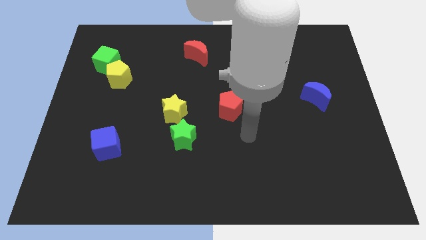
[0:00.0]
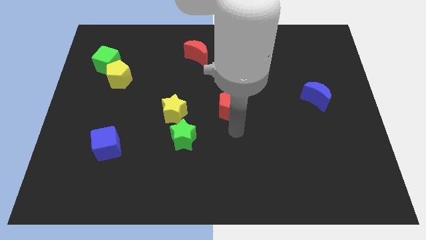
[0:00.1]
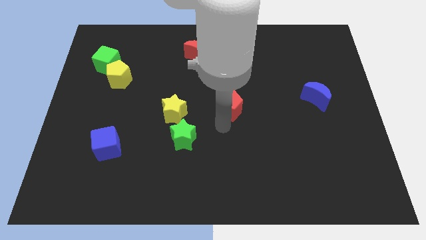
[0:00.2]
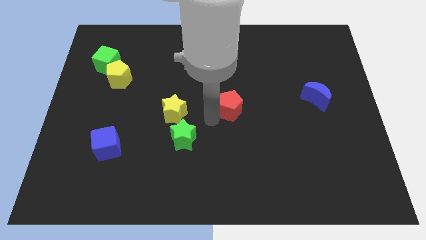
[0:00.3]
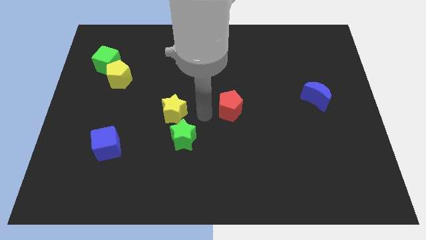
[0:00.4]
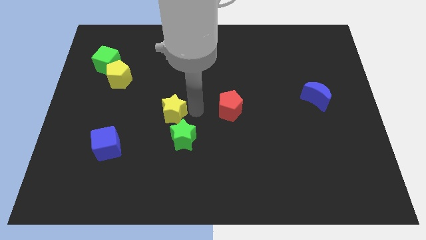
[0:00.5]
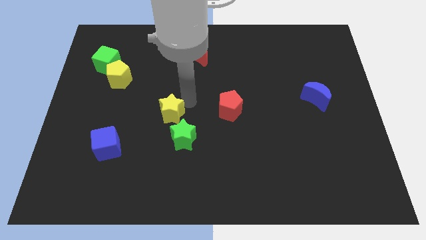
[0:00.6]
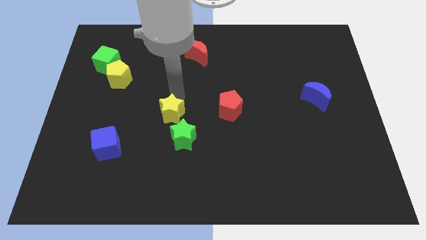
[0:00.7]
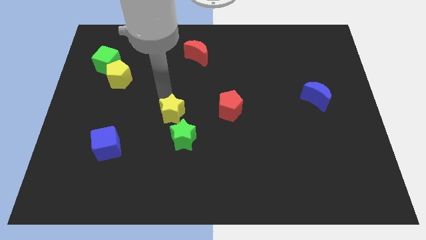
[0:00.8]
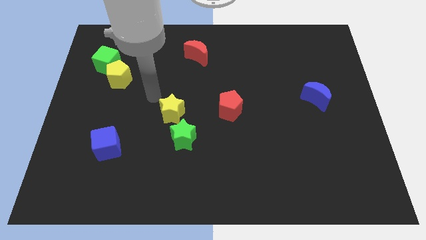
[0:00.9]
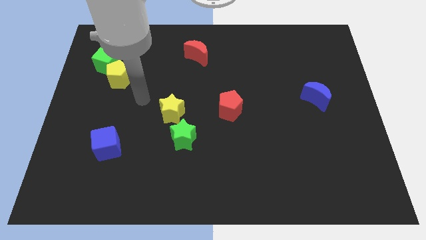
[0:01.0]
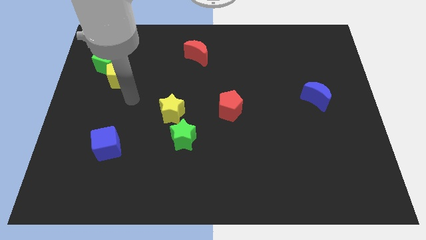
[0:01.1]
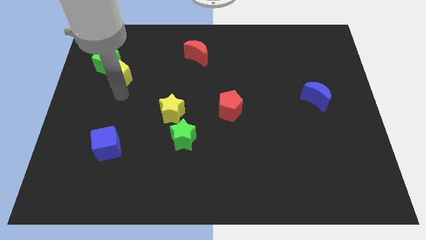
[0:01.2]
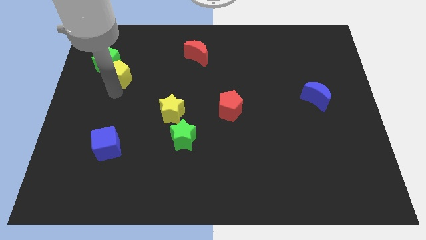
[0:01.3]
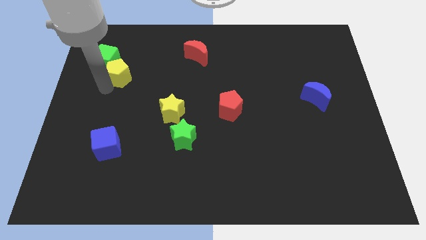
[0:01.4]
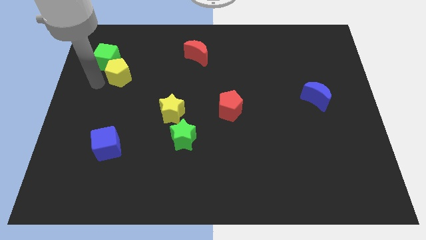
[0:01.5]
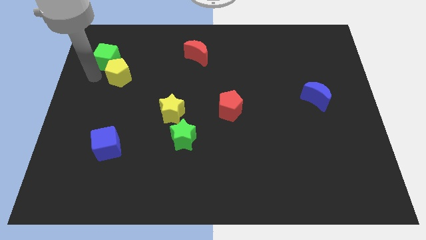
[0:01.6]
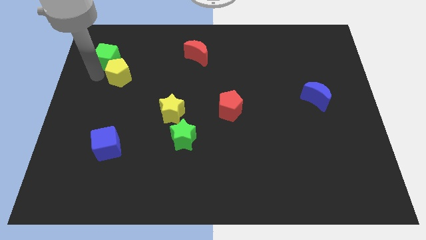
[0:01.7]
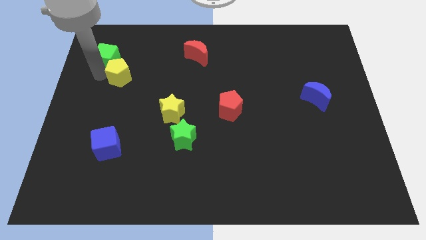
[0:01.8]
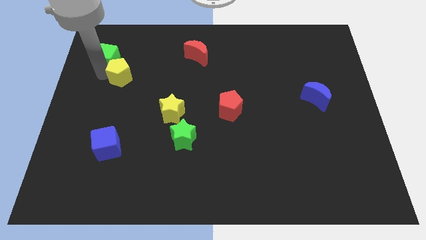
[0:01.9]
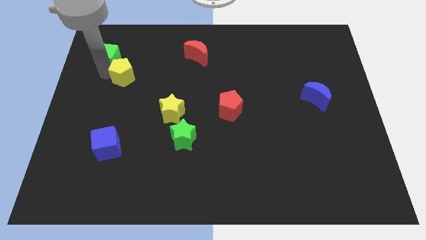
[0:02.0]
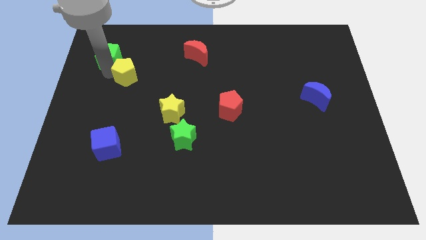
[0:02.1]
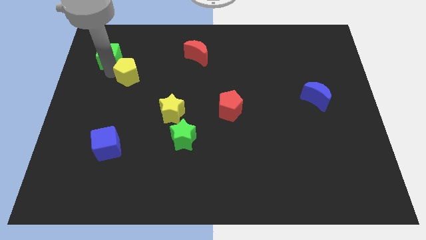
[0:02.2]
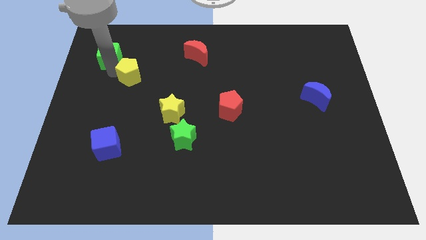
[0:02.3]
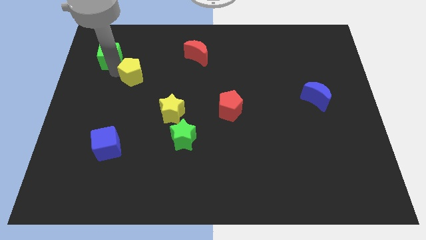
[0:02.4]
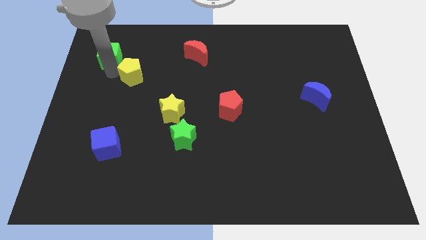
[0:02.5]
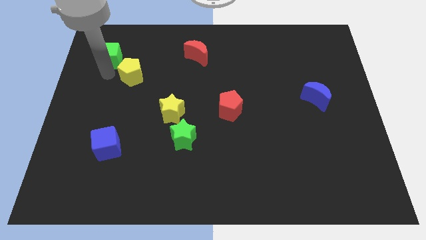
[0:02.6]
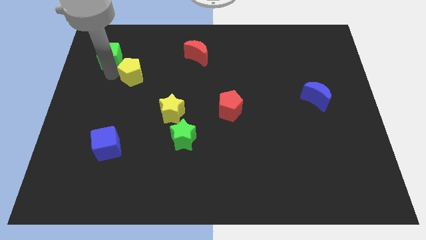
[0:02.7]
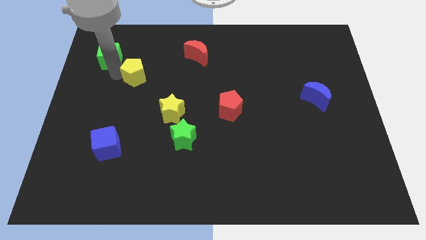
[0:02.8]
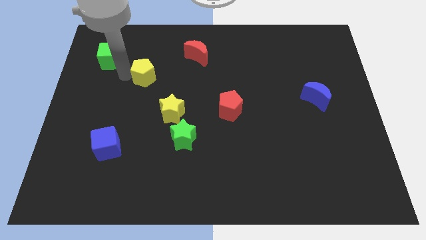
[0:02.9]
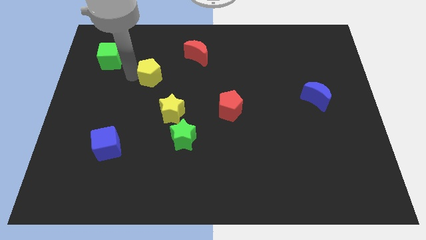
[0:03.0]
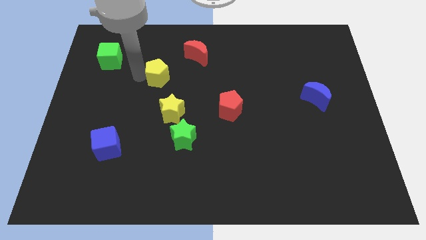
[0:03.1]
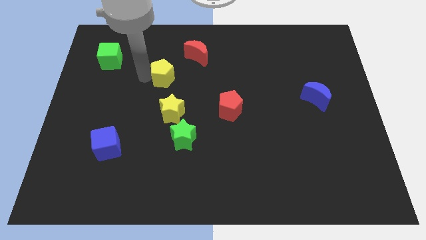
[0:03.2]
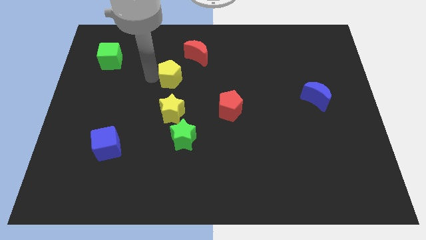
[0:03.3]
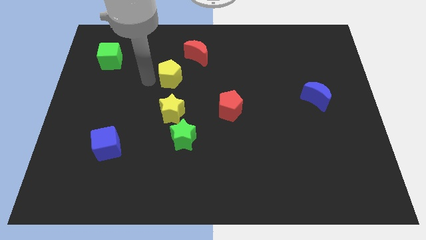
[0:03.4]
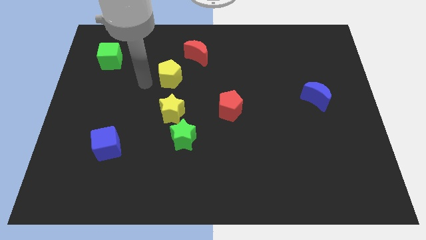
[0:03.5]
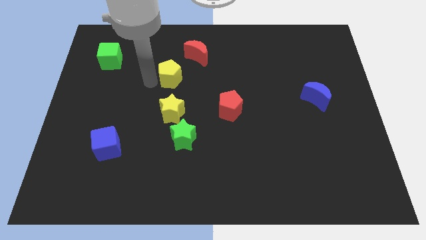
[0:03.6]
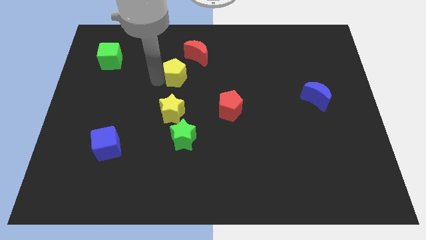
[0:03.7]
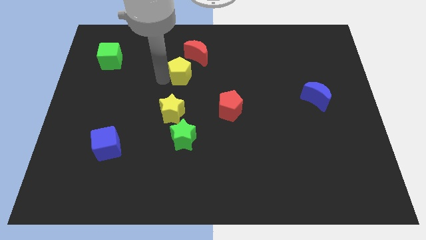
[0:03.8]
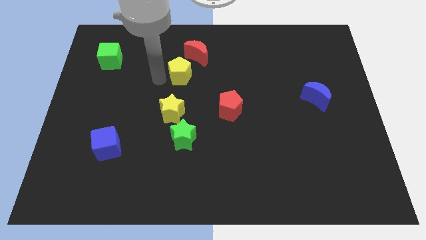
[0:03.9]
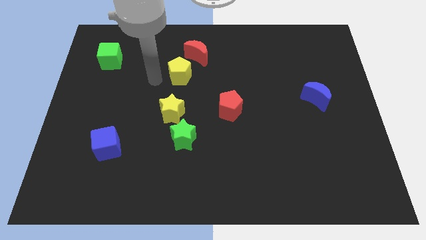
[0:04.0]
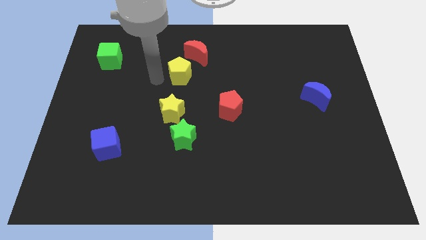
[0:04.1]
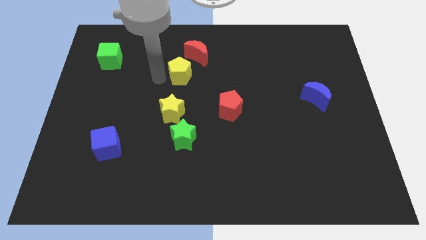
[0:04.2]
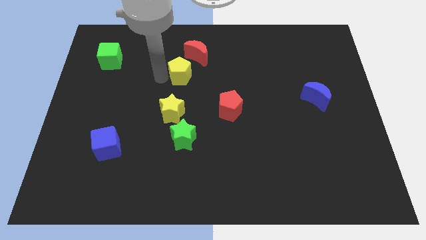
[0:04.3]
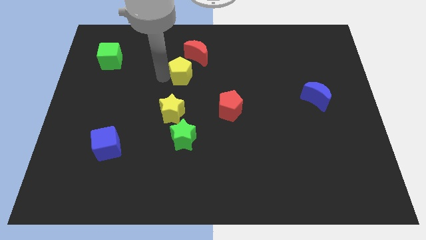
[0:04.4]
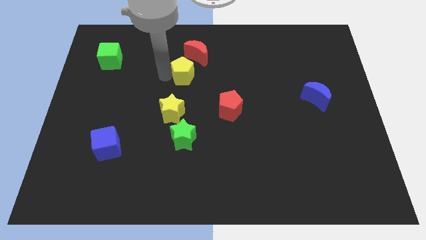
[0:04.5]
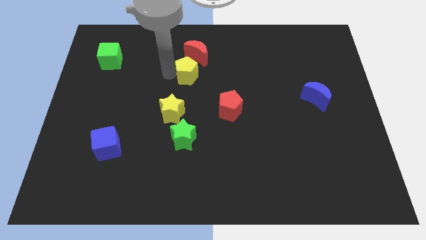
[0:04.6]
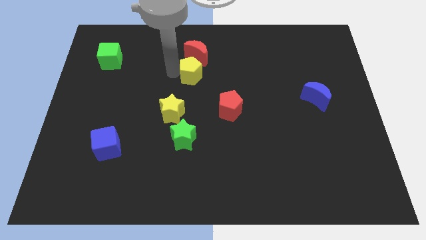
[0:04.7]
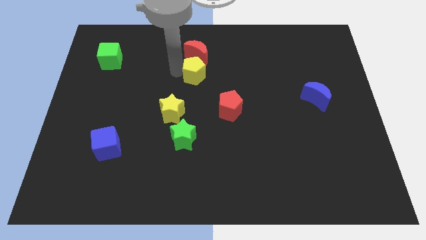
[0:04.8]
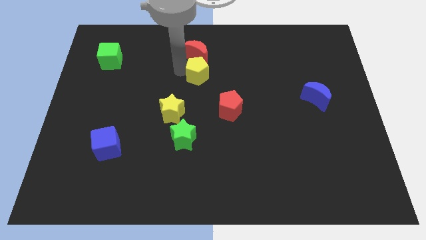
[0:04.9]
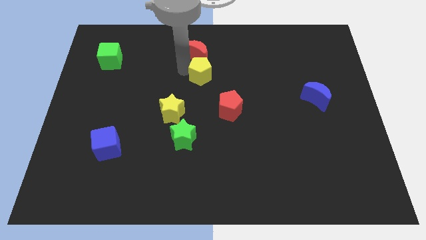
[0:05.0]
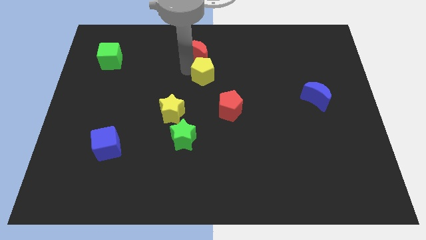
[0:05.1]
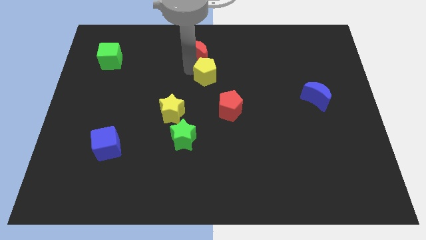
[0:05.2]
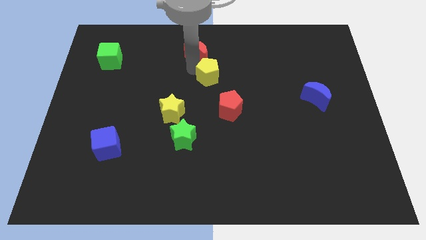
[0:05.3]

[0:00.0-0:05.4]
put the yellow pentagon above the red pentagon

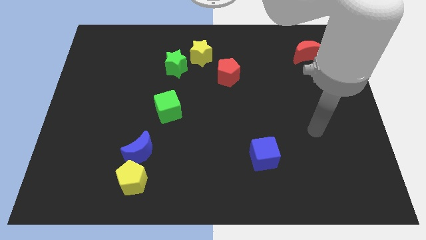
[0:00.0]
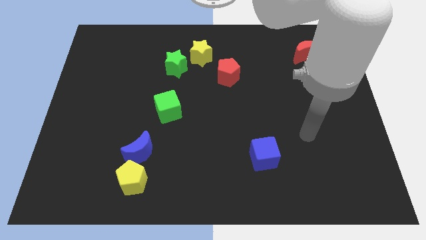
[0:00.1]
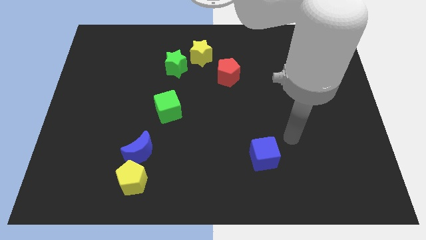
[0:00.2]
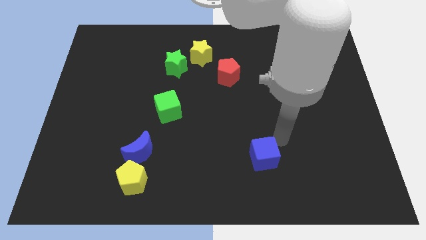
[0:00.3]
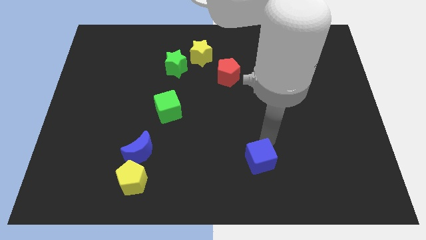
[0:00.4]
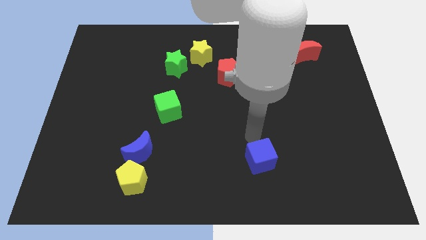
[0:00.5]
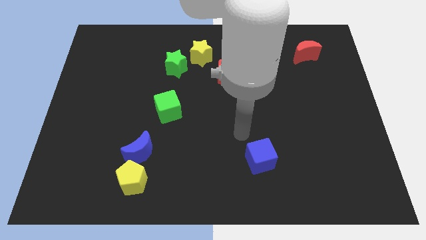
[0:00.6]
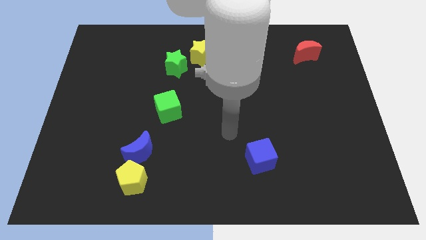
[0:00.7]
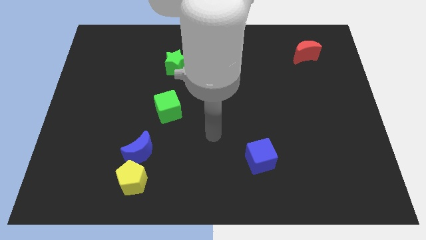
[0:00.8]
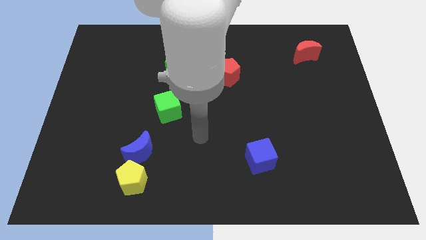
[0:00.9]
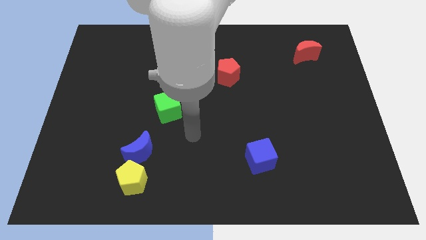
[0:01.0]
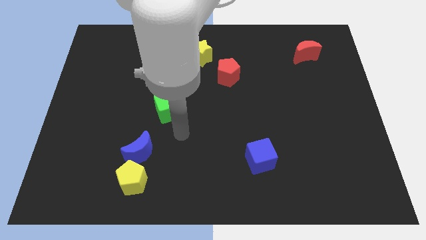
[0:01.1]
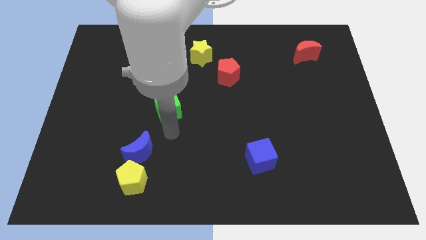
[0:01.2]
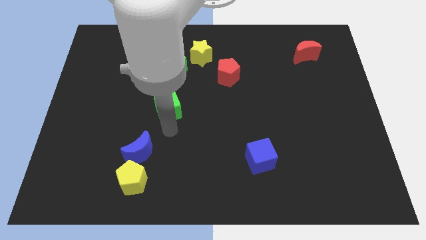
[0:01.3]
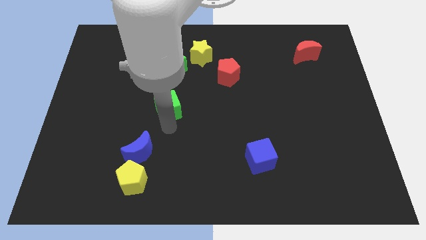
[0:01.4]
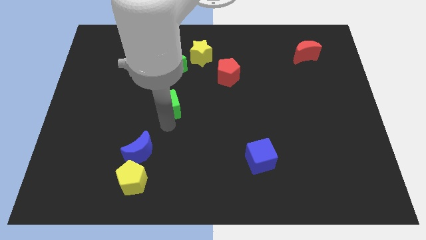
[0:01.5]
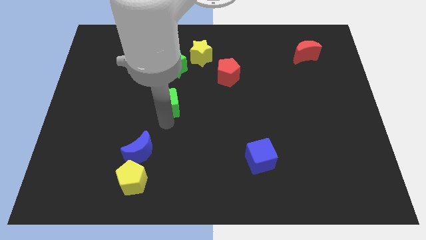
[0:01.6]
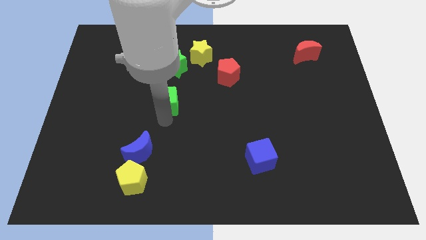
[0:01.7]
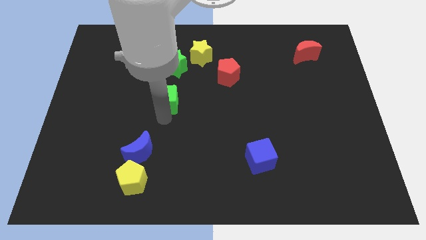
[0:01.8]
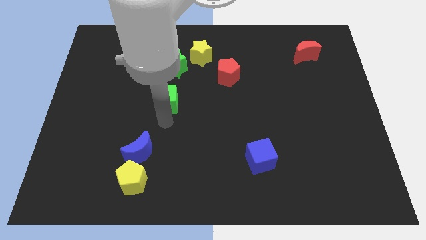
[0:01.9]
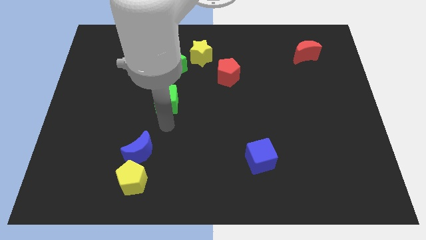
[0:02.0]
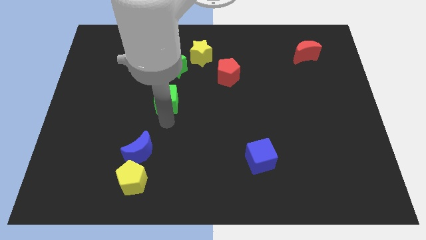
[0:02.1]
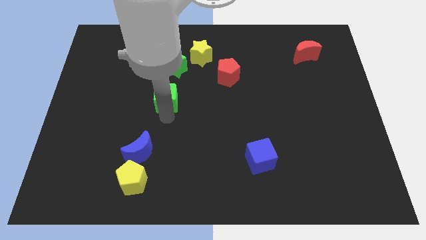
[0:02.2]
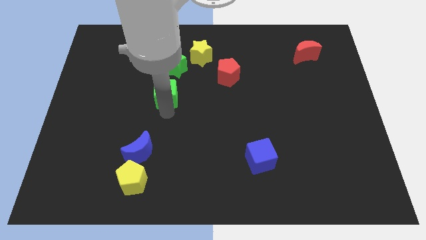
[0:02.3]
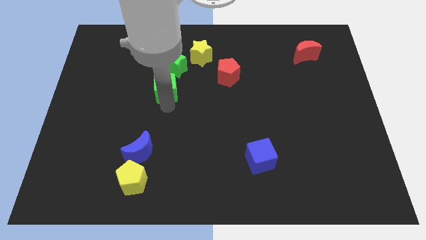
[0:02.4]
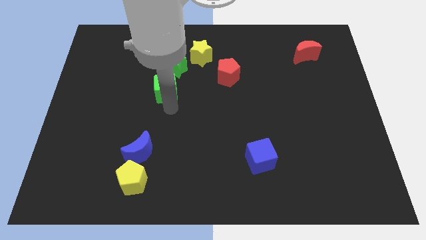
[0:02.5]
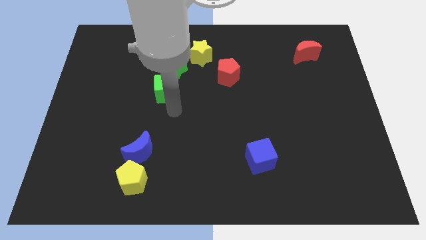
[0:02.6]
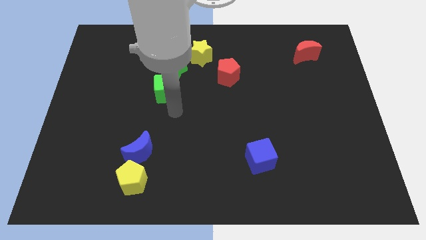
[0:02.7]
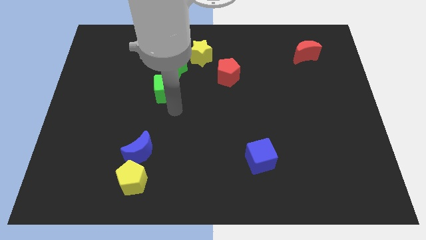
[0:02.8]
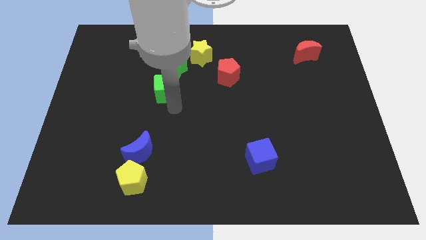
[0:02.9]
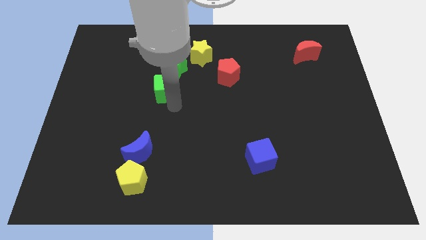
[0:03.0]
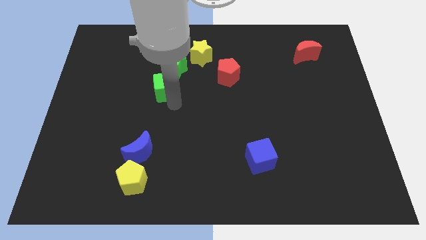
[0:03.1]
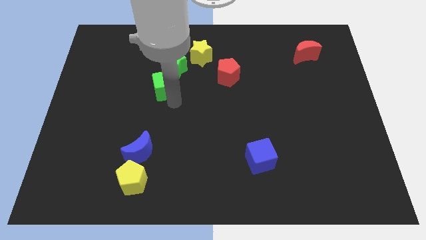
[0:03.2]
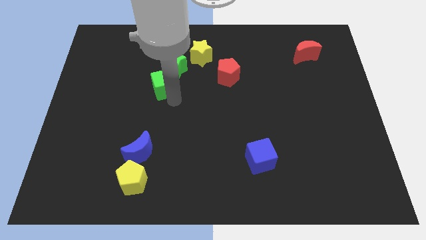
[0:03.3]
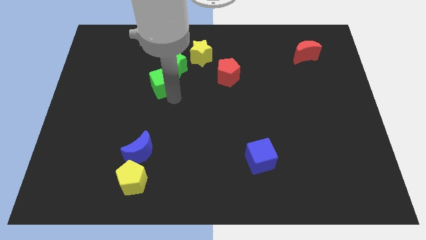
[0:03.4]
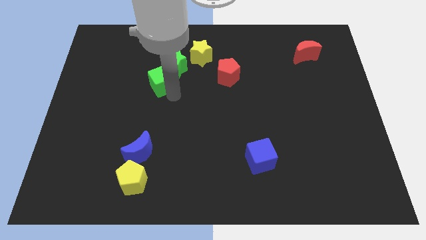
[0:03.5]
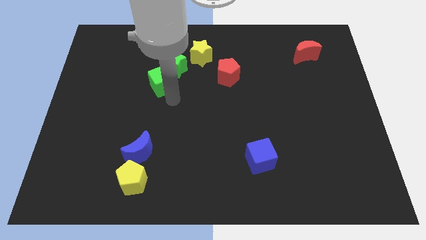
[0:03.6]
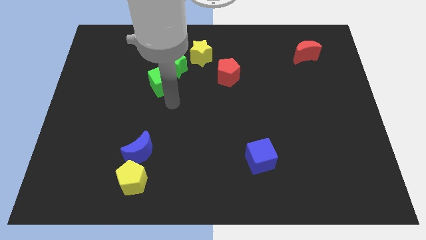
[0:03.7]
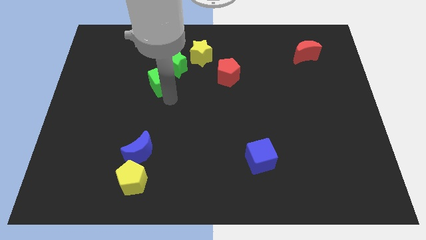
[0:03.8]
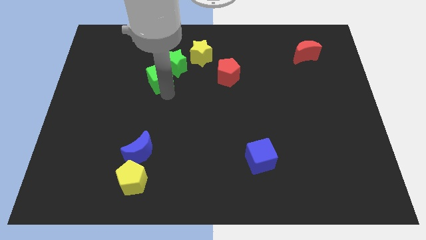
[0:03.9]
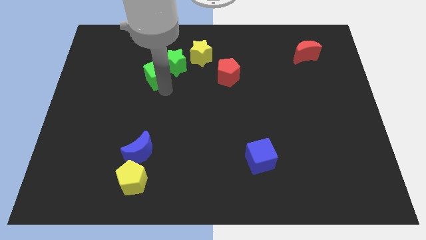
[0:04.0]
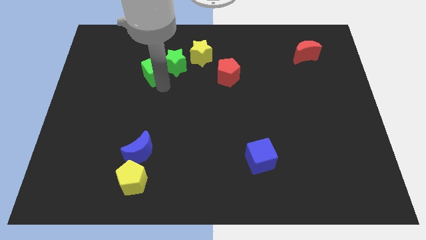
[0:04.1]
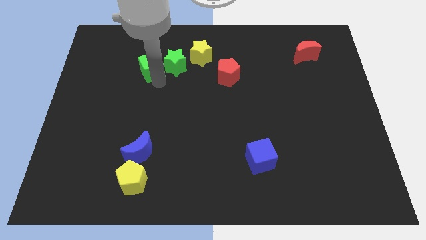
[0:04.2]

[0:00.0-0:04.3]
put the green cube just left of the yellow star
